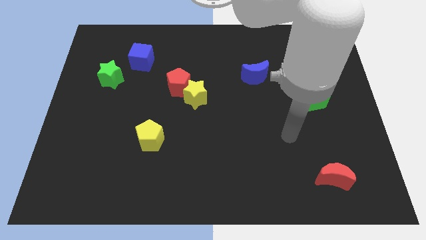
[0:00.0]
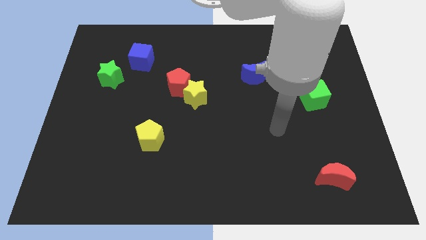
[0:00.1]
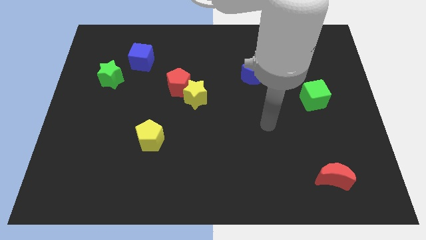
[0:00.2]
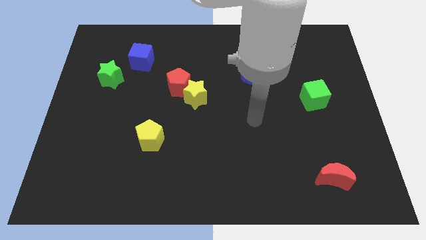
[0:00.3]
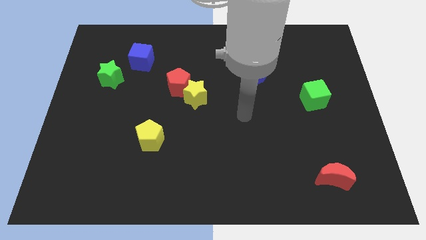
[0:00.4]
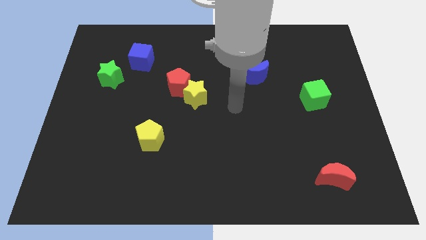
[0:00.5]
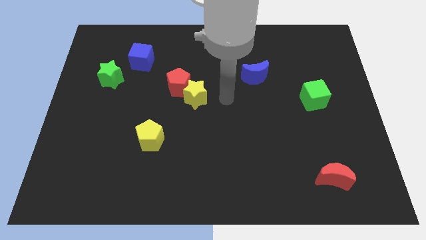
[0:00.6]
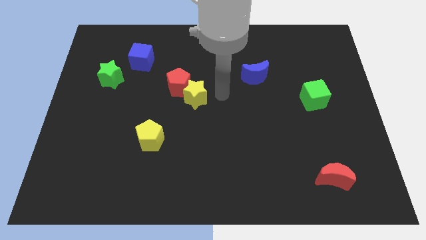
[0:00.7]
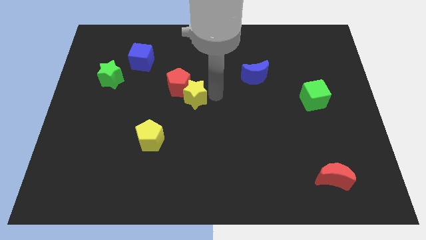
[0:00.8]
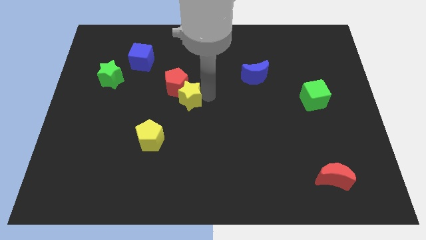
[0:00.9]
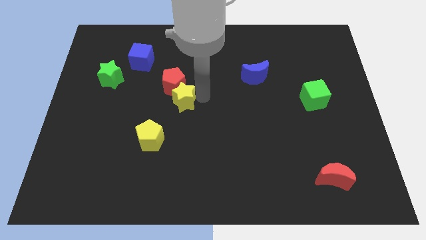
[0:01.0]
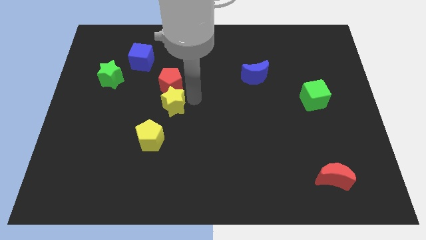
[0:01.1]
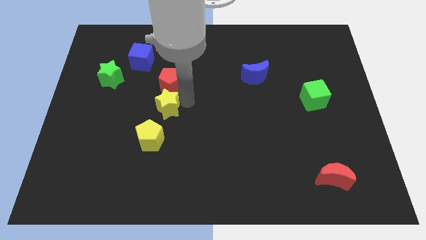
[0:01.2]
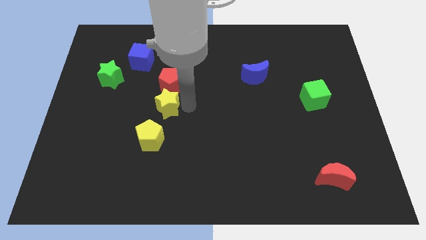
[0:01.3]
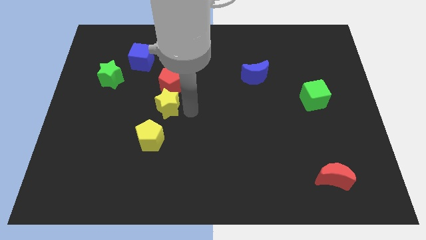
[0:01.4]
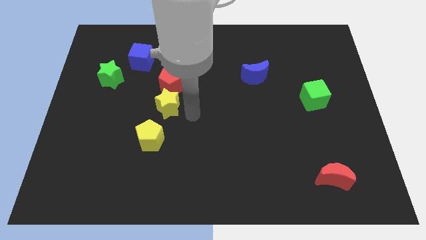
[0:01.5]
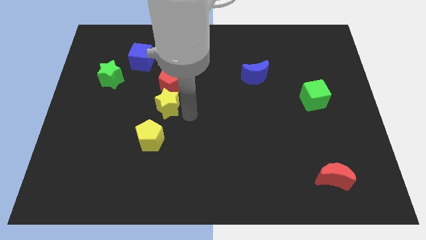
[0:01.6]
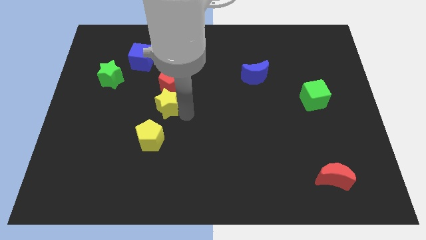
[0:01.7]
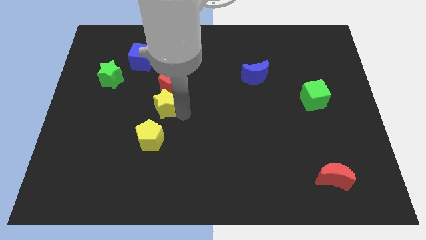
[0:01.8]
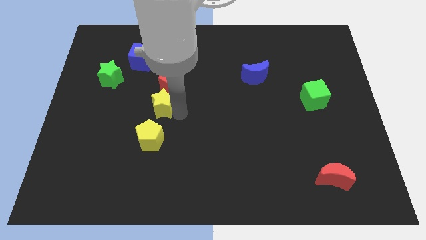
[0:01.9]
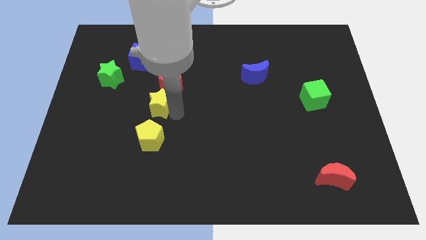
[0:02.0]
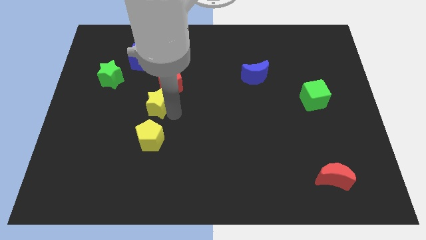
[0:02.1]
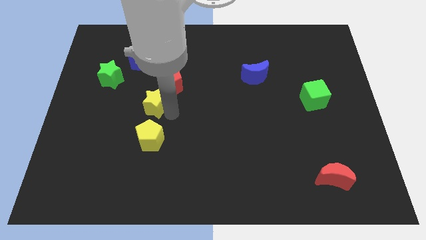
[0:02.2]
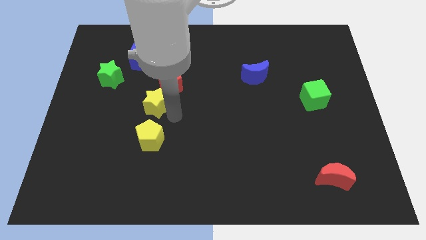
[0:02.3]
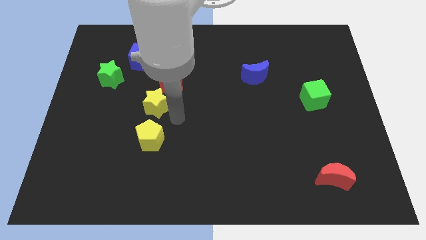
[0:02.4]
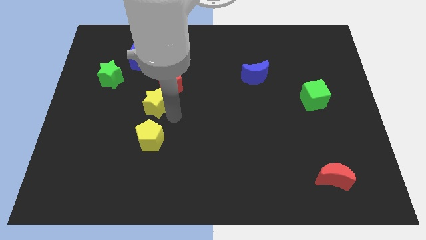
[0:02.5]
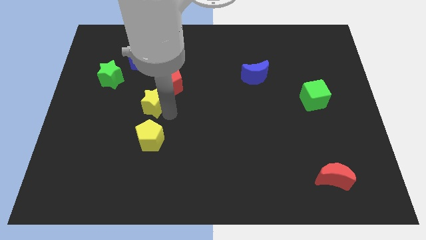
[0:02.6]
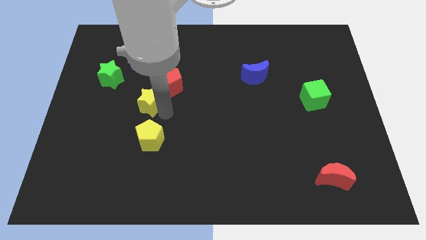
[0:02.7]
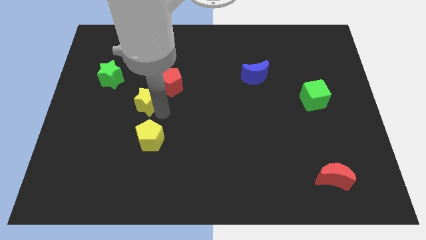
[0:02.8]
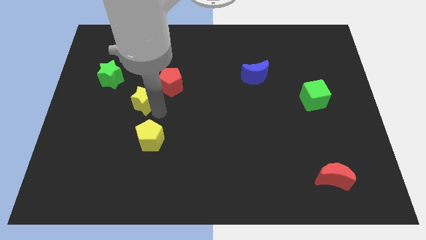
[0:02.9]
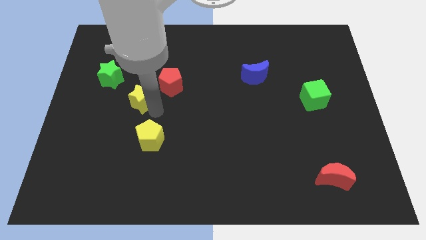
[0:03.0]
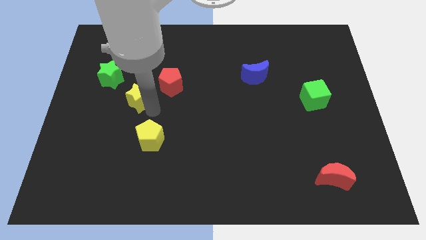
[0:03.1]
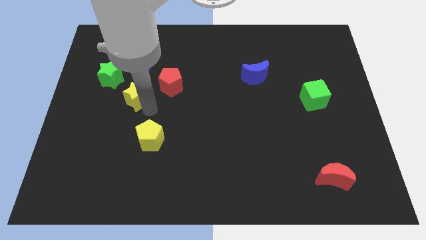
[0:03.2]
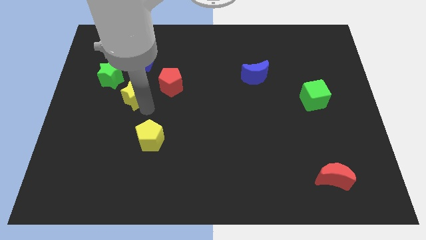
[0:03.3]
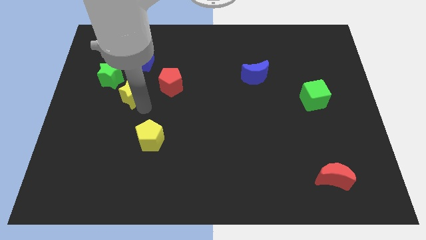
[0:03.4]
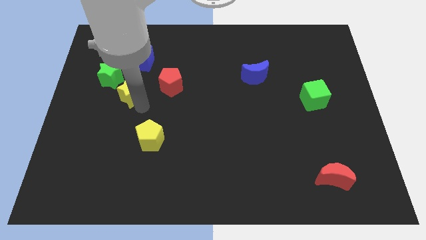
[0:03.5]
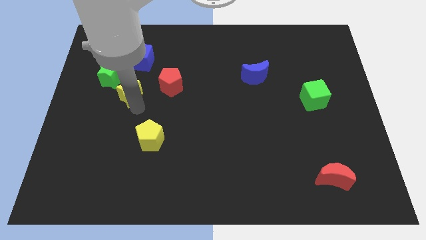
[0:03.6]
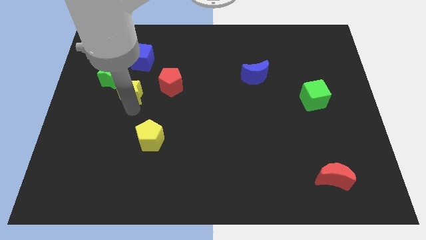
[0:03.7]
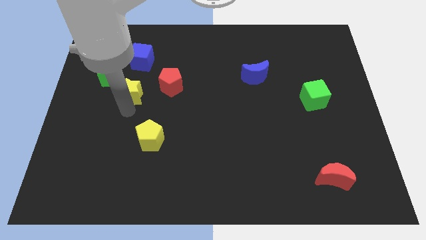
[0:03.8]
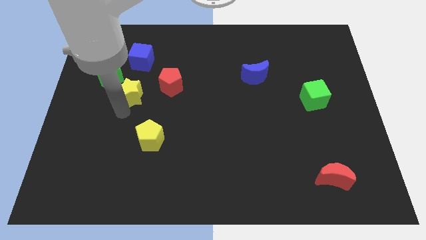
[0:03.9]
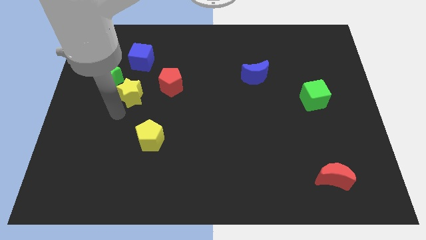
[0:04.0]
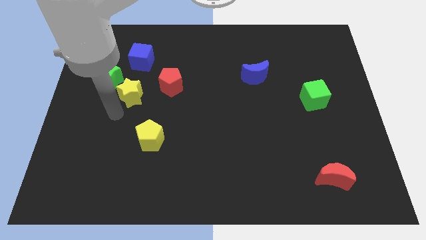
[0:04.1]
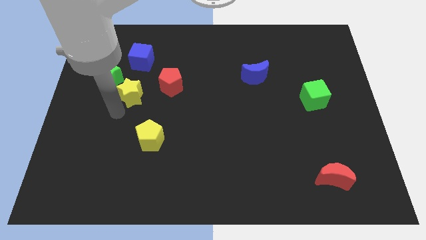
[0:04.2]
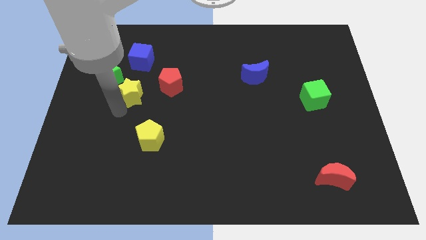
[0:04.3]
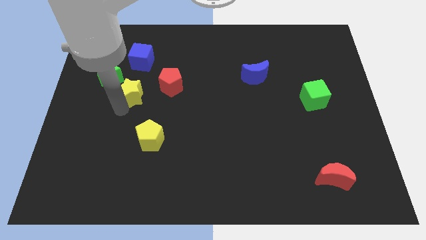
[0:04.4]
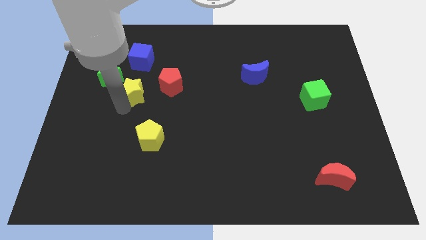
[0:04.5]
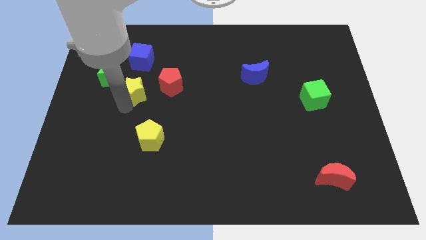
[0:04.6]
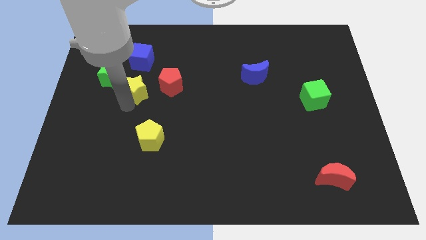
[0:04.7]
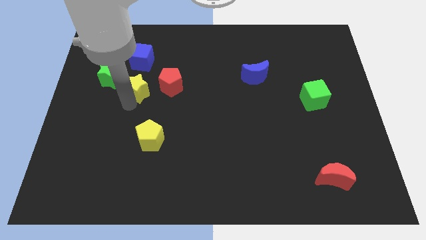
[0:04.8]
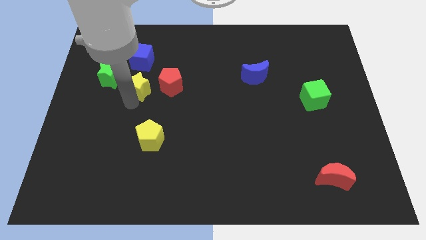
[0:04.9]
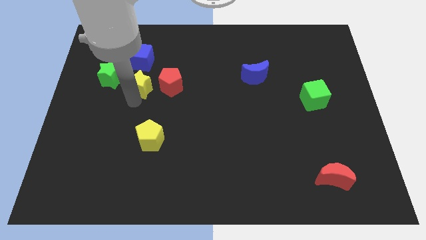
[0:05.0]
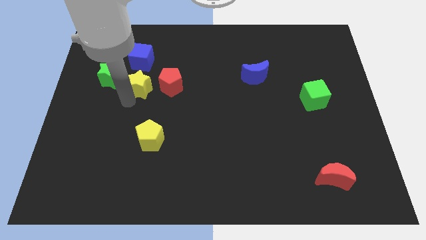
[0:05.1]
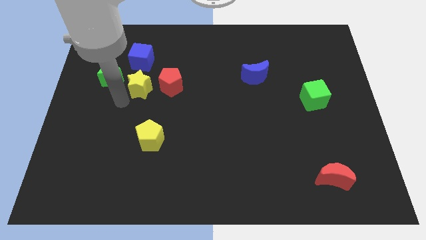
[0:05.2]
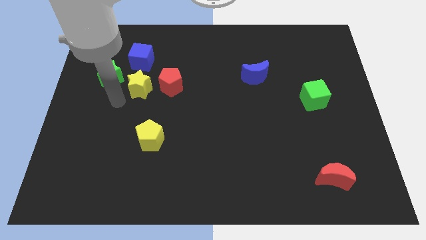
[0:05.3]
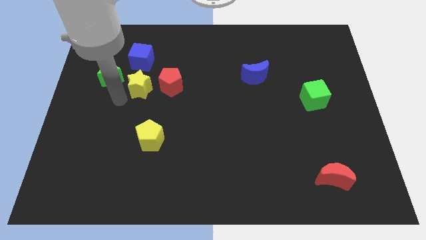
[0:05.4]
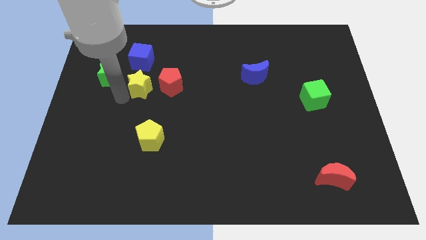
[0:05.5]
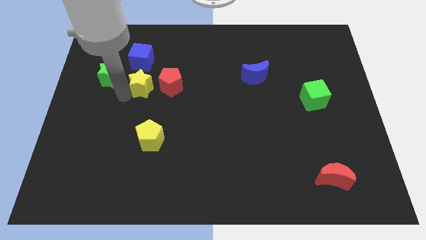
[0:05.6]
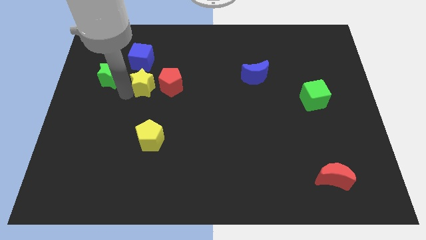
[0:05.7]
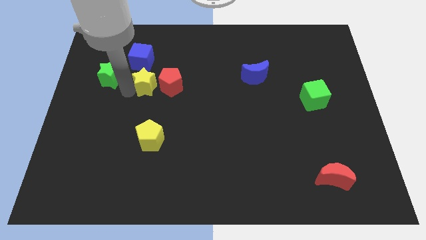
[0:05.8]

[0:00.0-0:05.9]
move the yellow star diagonally down and to the right of the blue cube
